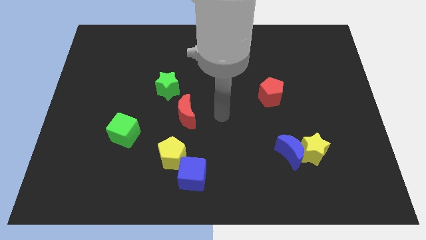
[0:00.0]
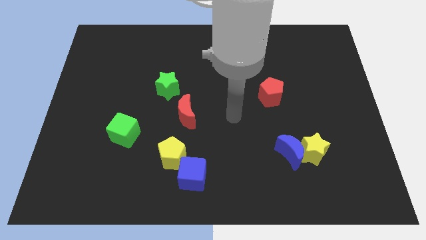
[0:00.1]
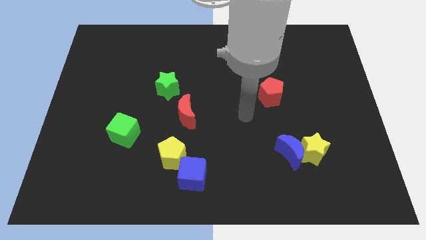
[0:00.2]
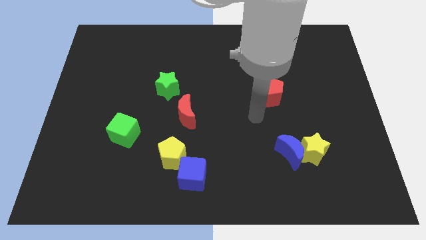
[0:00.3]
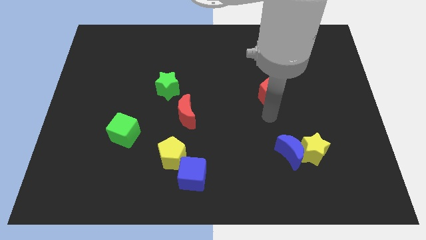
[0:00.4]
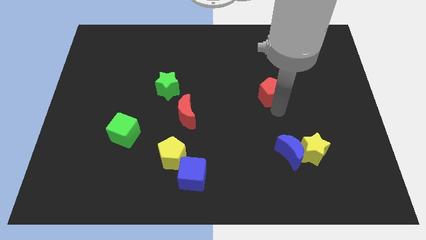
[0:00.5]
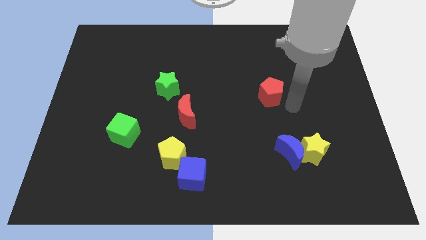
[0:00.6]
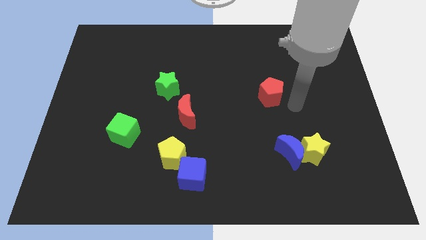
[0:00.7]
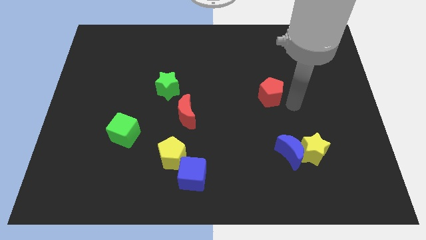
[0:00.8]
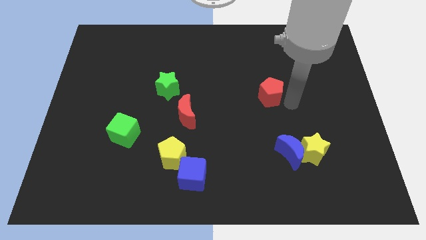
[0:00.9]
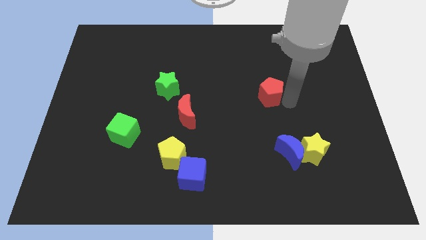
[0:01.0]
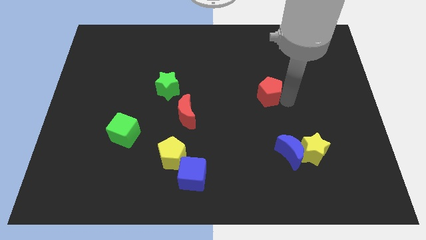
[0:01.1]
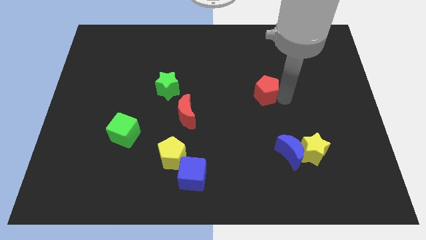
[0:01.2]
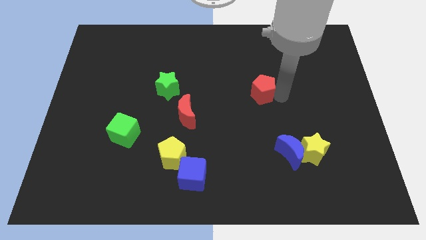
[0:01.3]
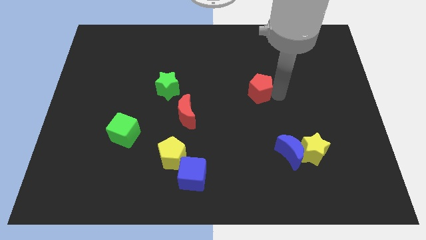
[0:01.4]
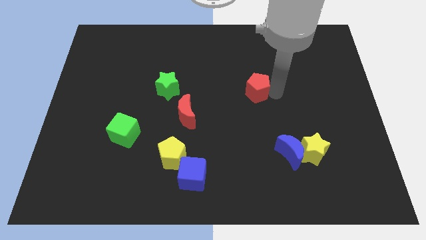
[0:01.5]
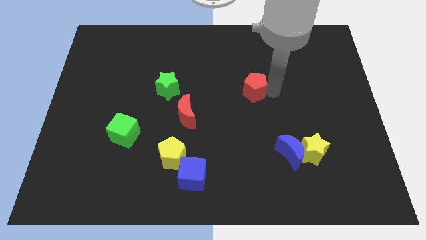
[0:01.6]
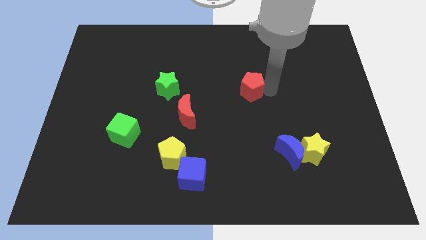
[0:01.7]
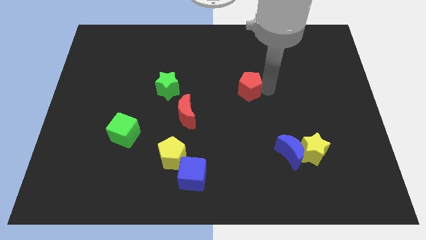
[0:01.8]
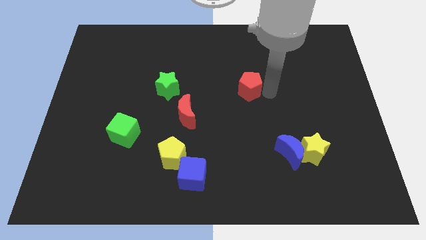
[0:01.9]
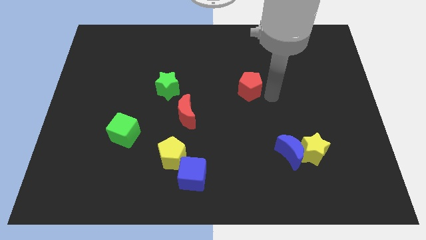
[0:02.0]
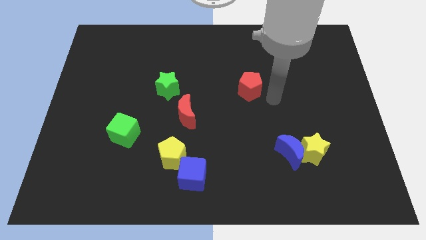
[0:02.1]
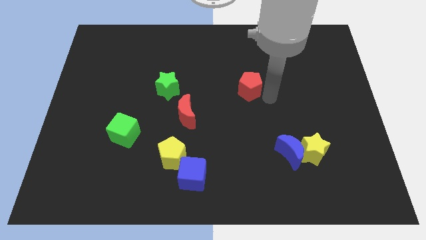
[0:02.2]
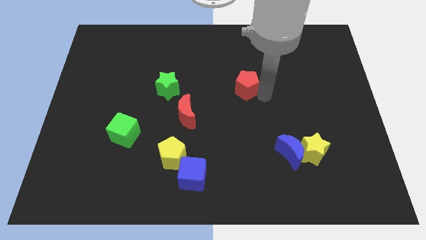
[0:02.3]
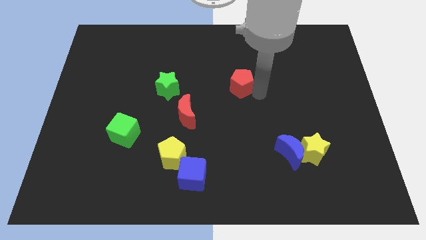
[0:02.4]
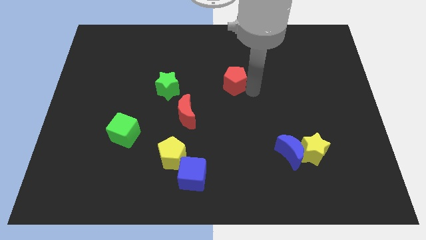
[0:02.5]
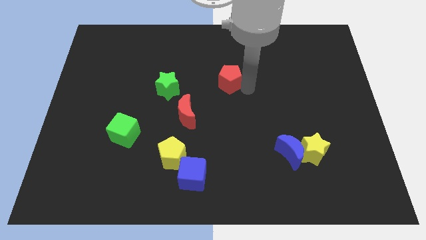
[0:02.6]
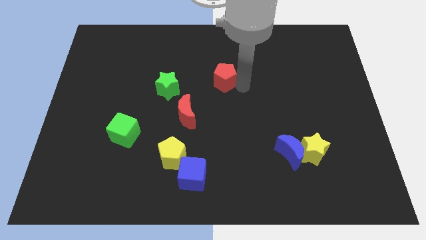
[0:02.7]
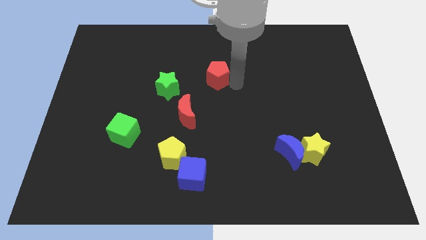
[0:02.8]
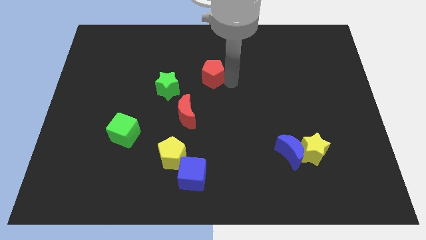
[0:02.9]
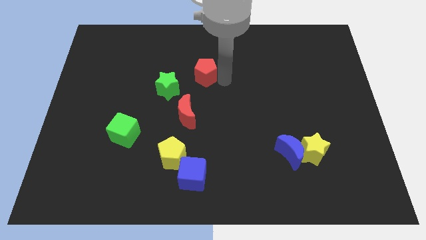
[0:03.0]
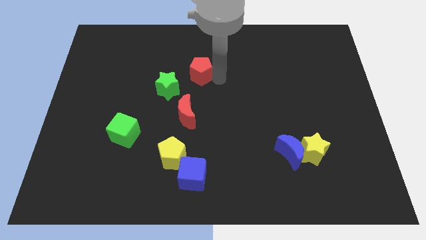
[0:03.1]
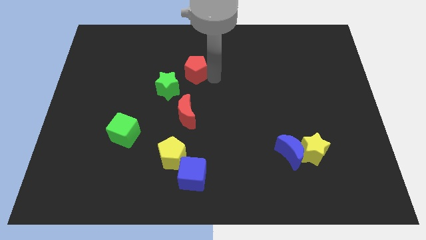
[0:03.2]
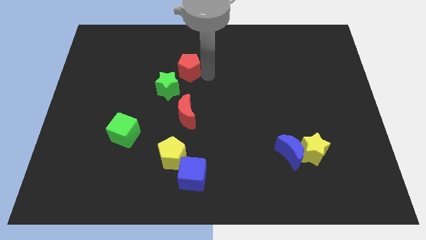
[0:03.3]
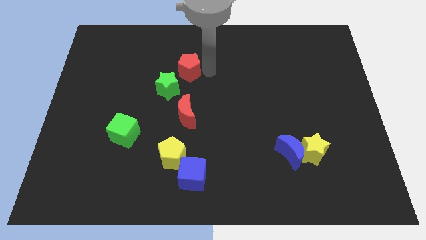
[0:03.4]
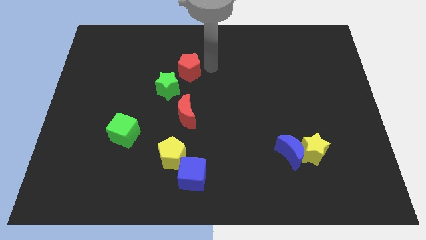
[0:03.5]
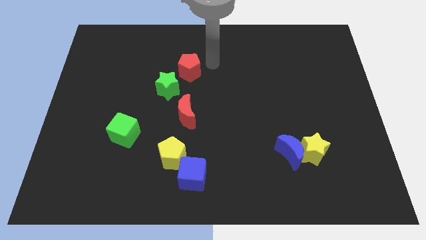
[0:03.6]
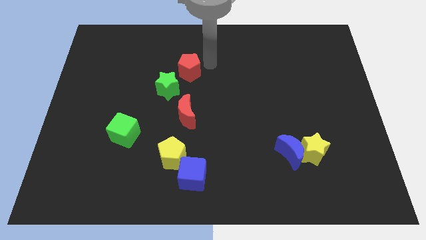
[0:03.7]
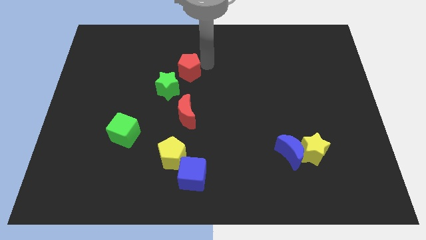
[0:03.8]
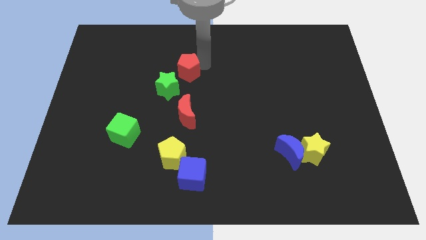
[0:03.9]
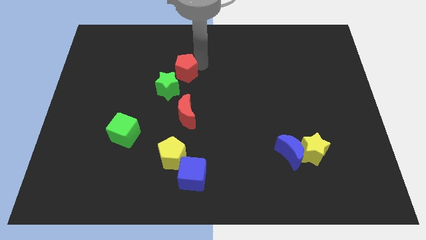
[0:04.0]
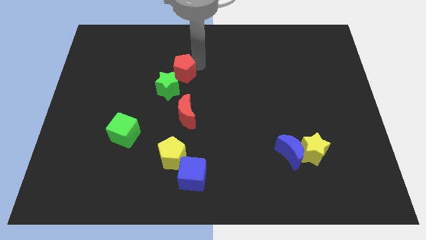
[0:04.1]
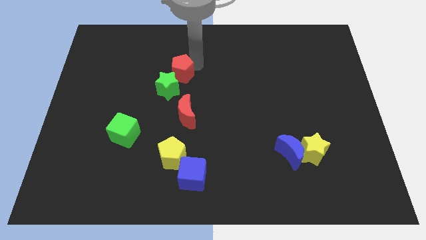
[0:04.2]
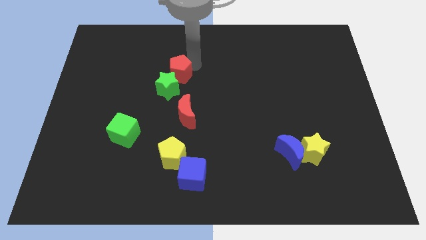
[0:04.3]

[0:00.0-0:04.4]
move the red pentagon to the left

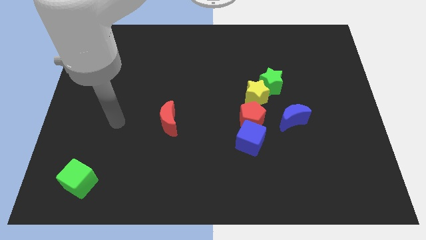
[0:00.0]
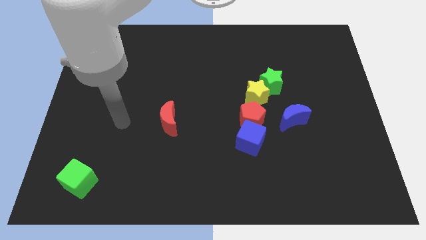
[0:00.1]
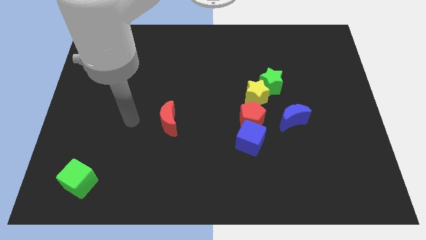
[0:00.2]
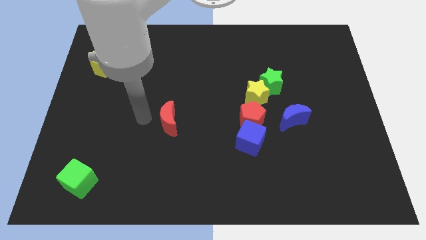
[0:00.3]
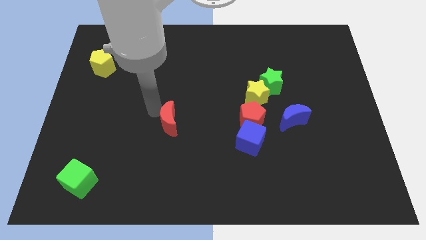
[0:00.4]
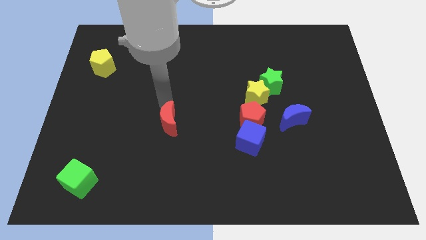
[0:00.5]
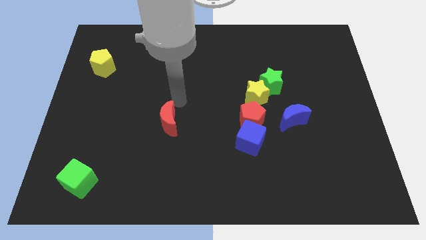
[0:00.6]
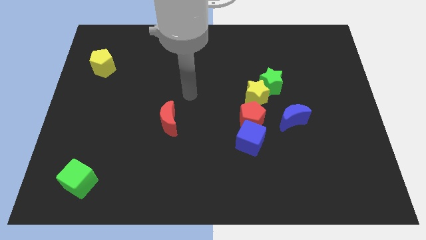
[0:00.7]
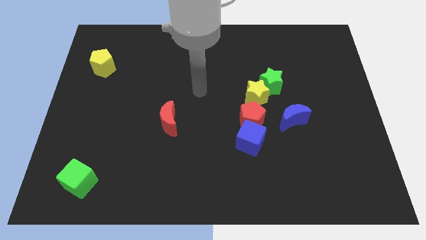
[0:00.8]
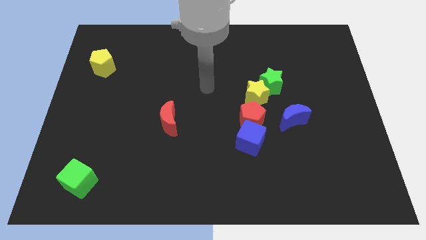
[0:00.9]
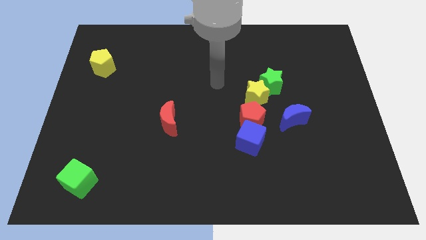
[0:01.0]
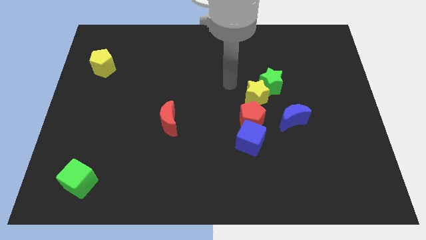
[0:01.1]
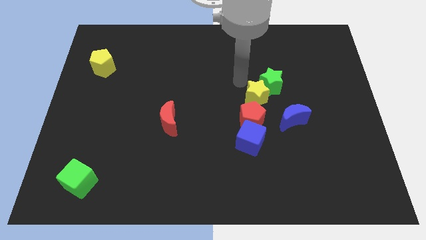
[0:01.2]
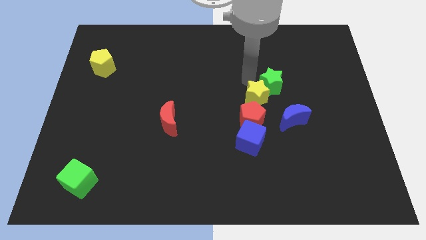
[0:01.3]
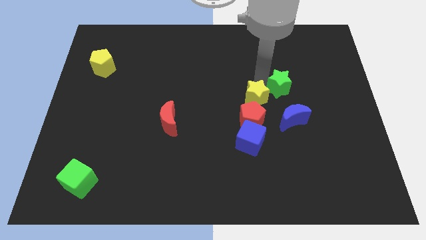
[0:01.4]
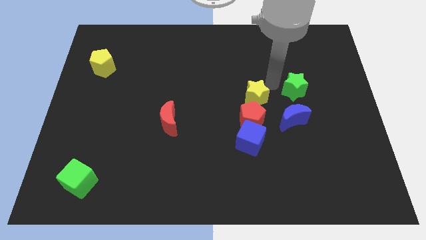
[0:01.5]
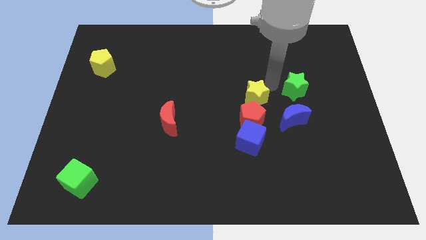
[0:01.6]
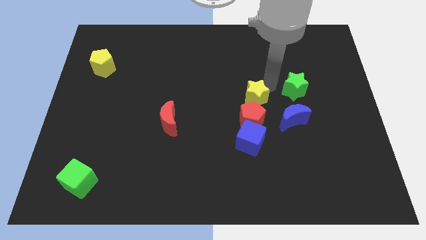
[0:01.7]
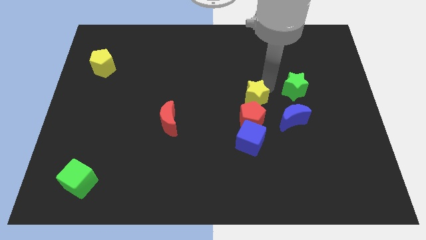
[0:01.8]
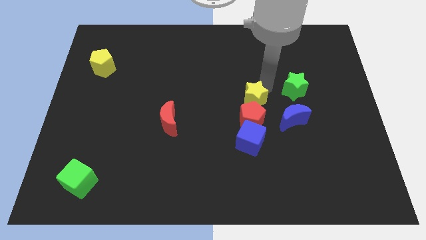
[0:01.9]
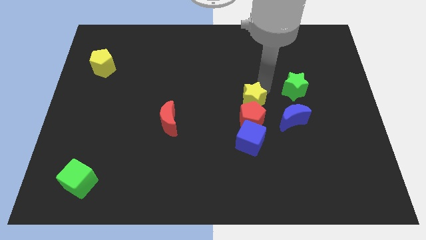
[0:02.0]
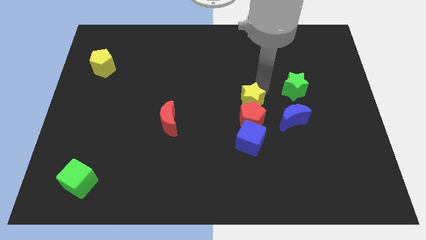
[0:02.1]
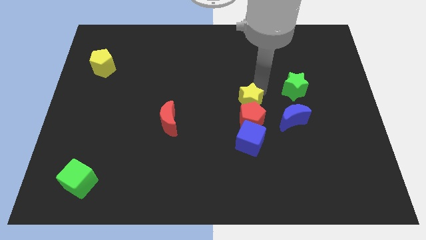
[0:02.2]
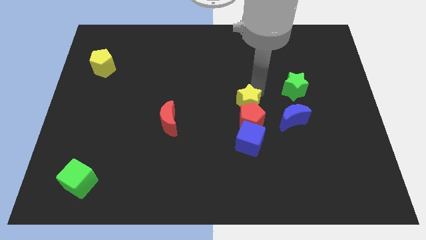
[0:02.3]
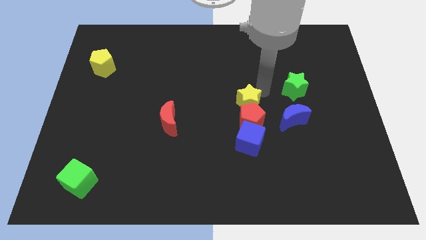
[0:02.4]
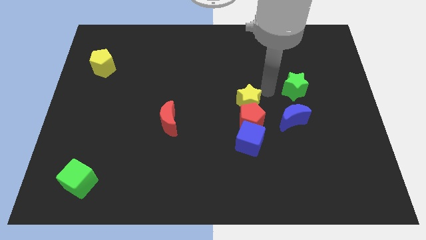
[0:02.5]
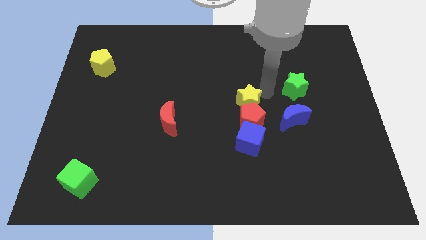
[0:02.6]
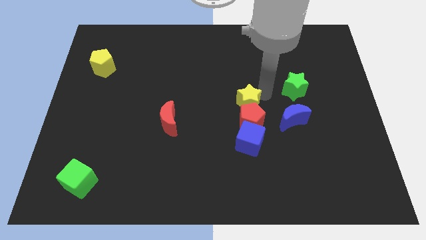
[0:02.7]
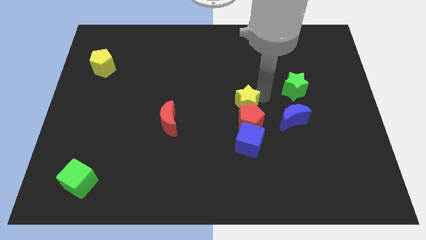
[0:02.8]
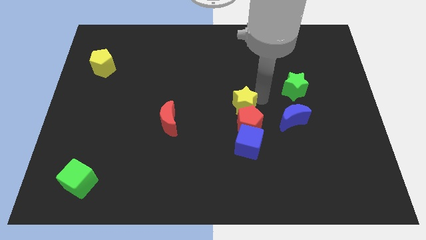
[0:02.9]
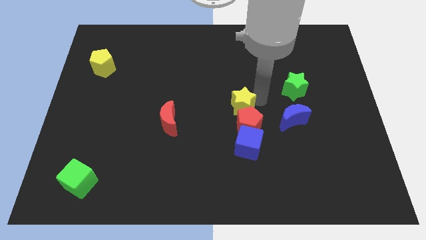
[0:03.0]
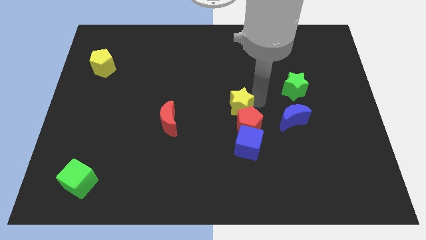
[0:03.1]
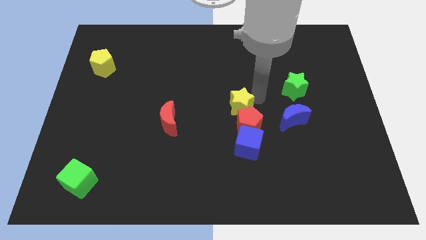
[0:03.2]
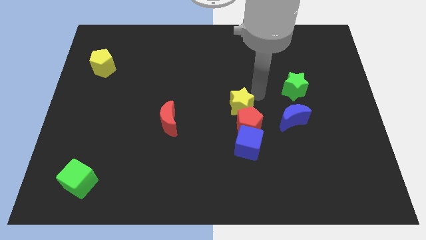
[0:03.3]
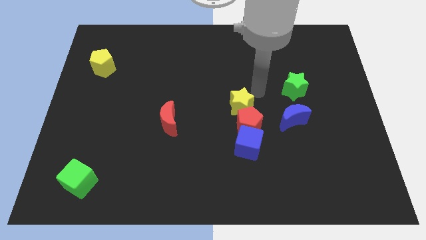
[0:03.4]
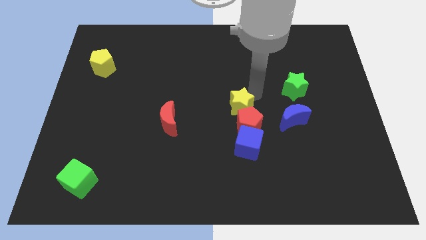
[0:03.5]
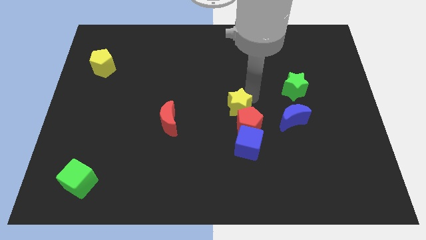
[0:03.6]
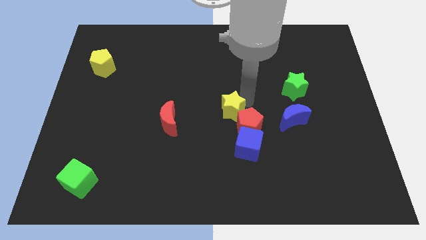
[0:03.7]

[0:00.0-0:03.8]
slide the yellow star diagonally downwards and to the left a little bit
